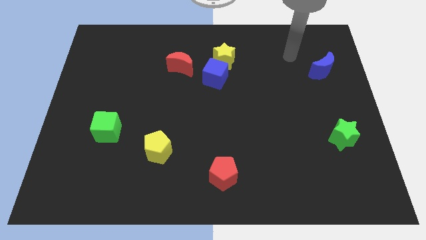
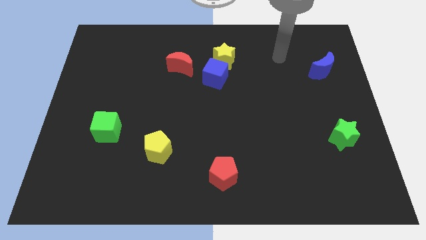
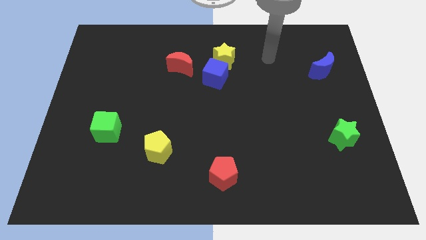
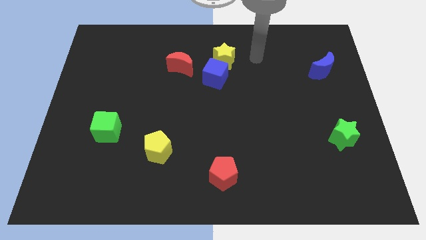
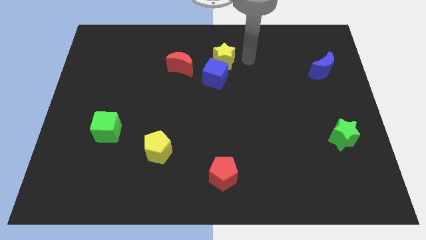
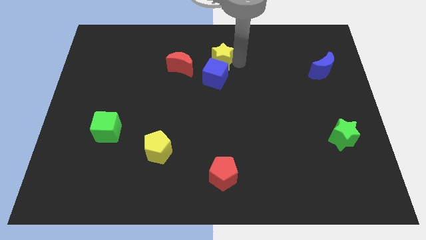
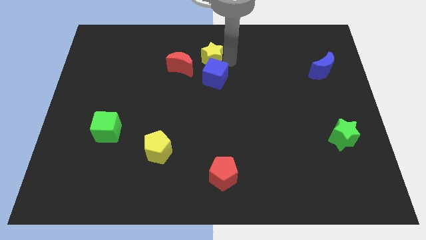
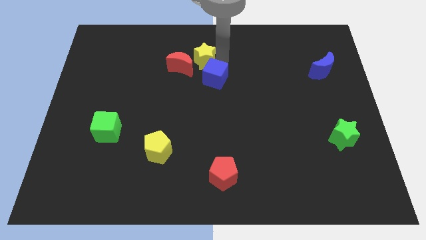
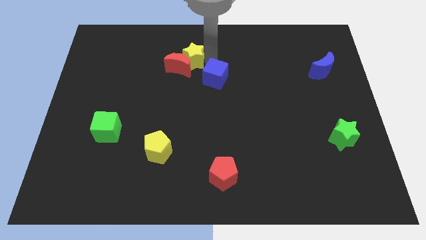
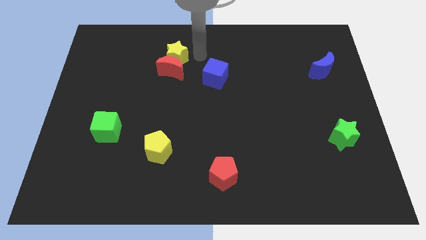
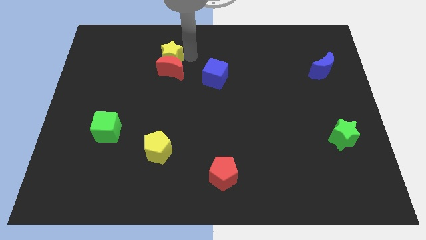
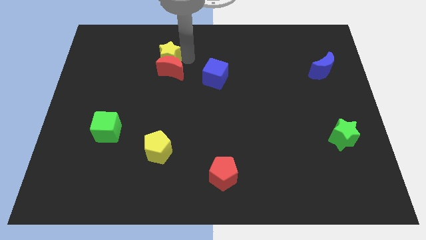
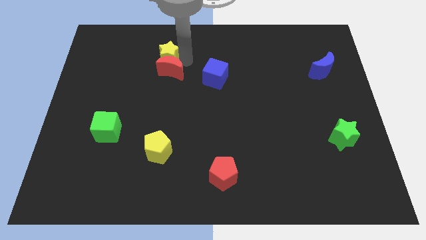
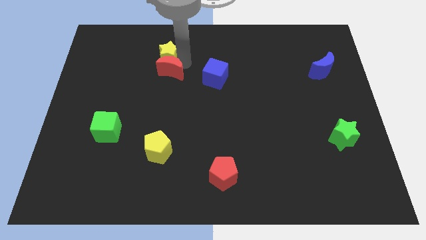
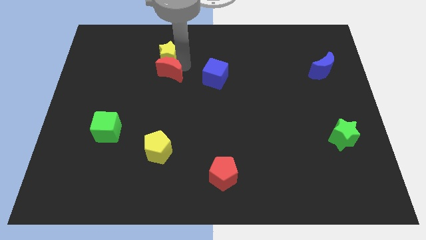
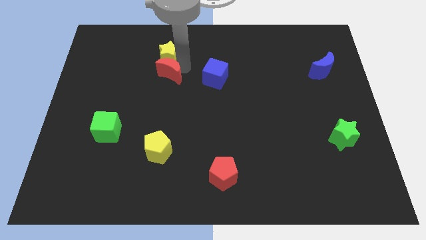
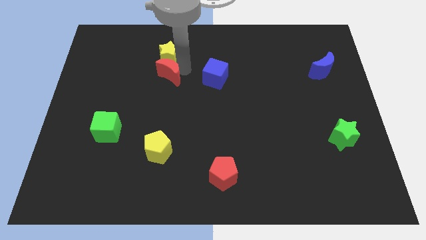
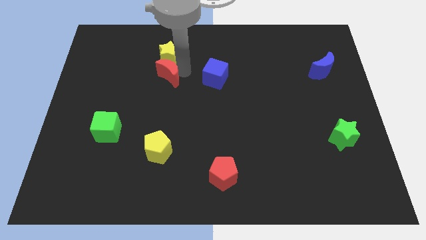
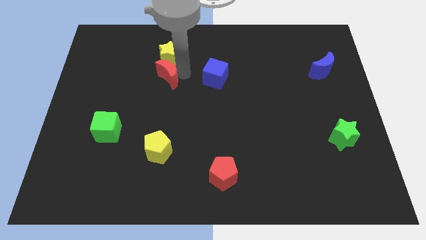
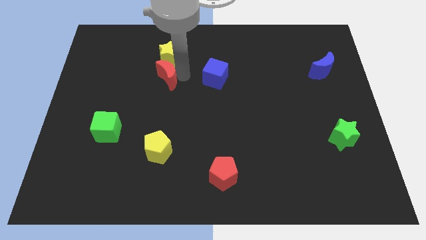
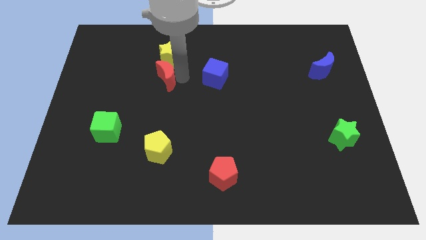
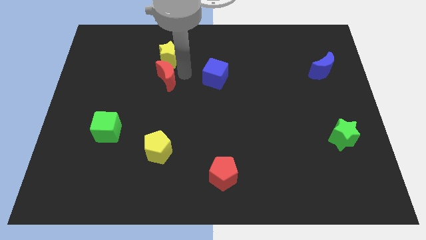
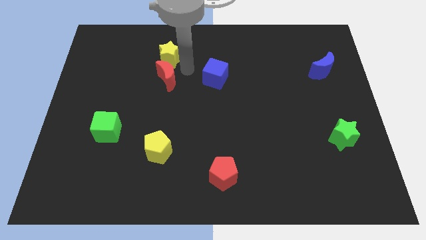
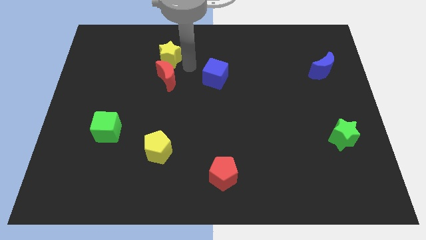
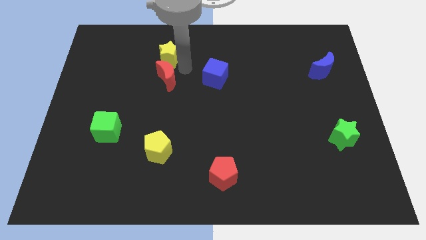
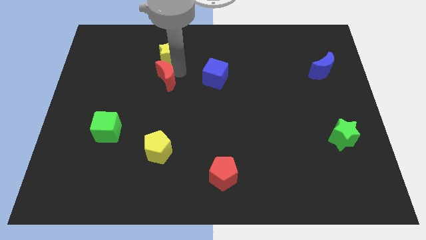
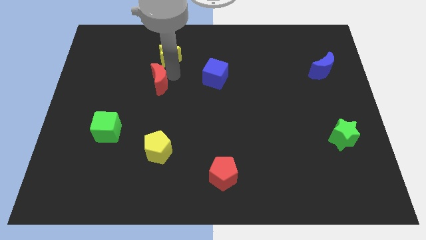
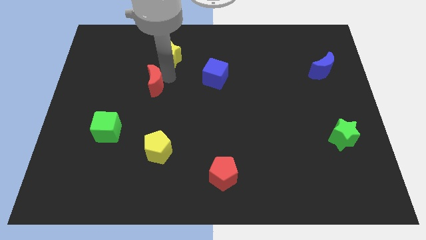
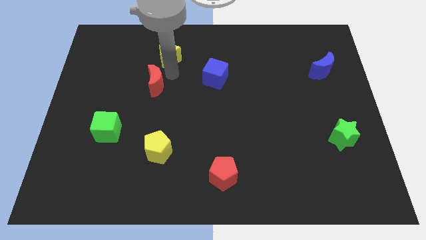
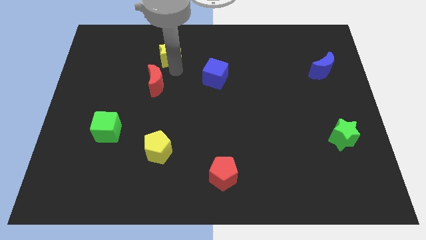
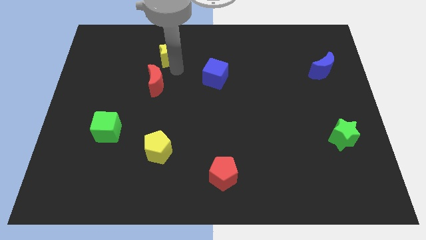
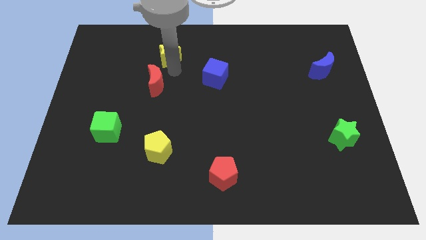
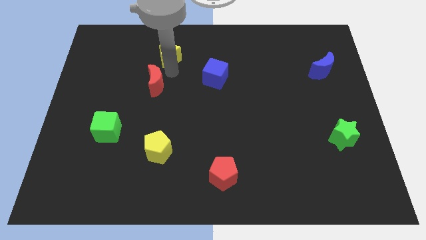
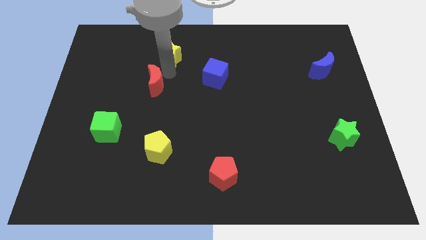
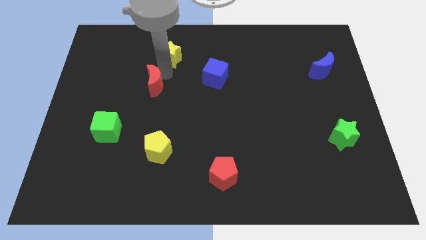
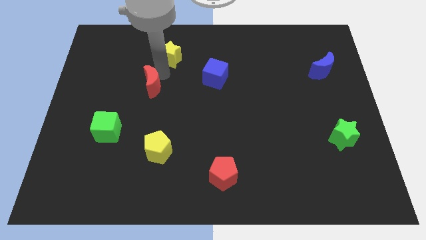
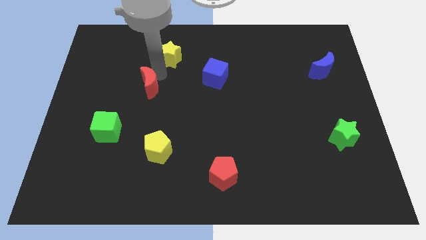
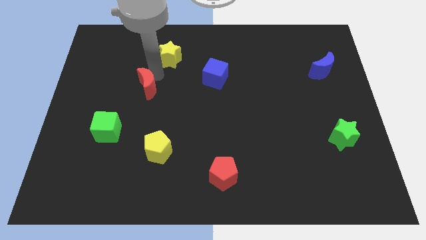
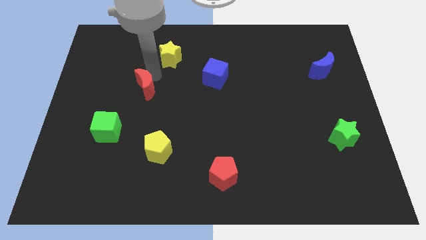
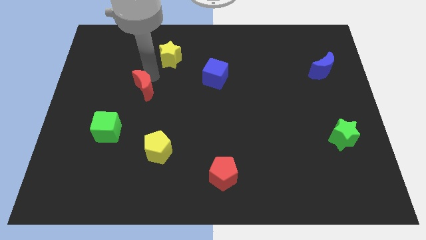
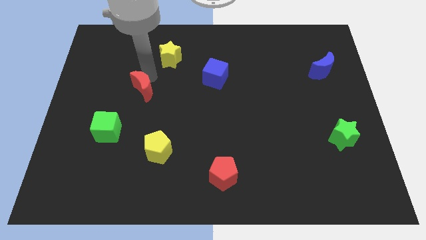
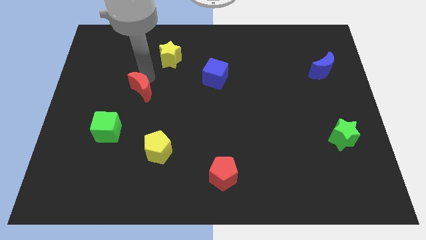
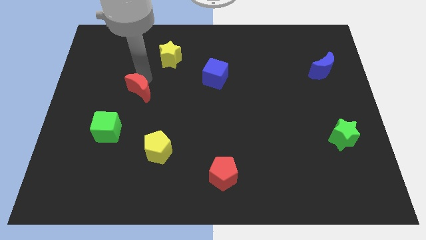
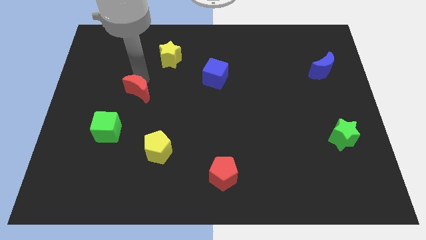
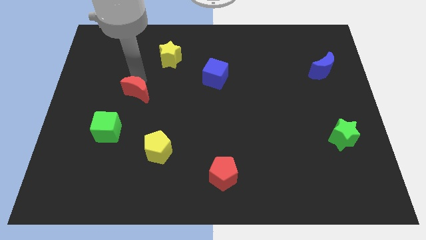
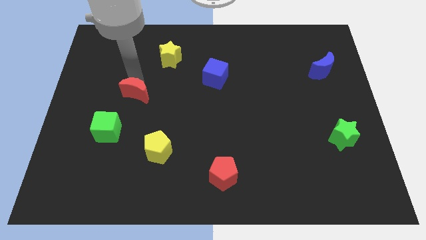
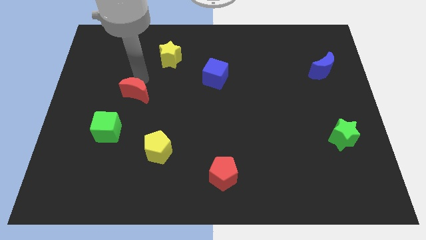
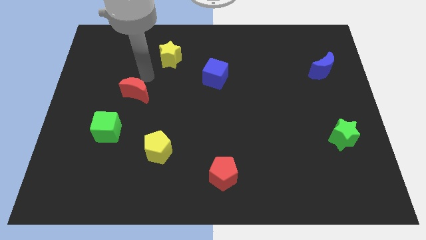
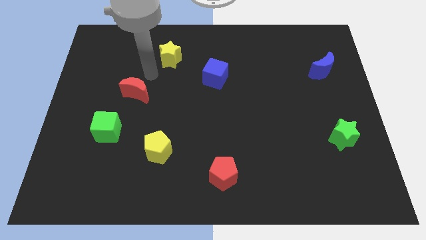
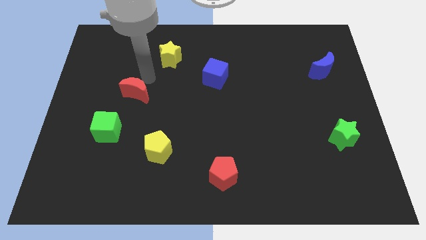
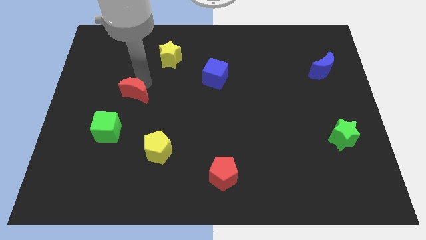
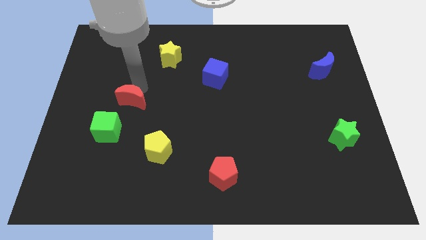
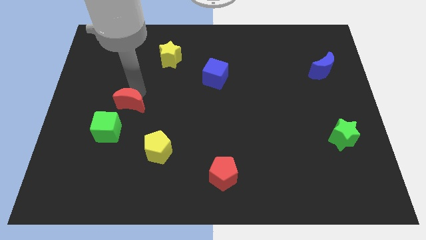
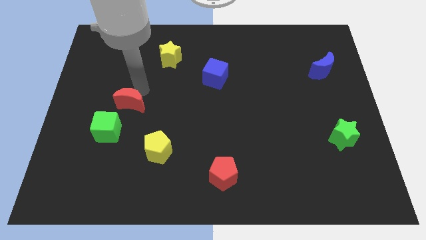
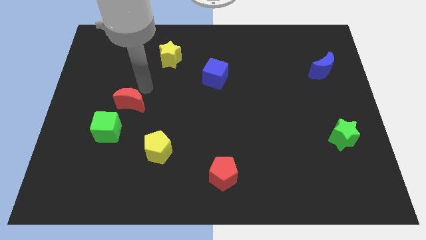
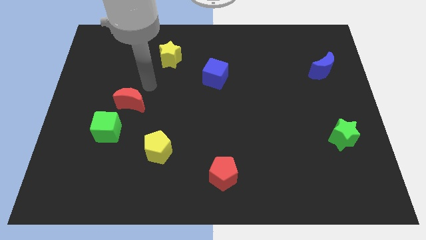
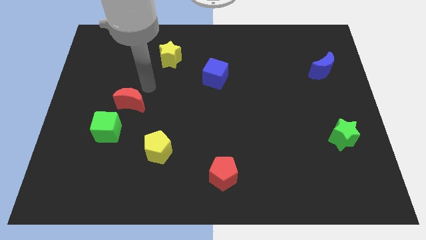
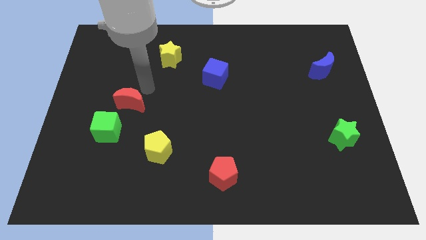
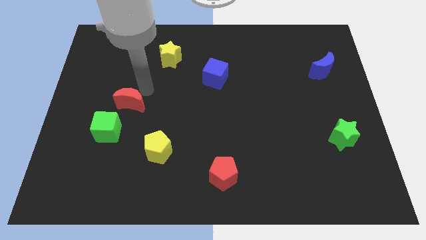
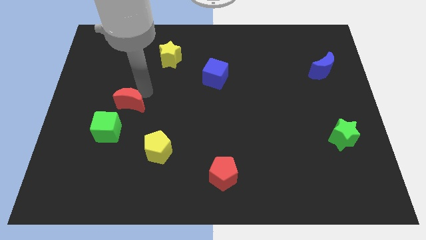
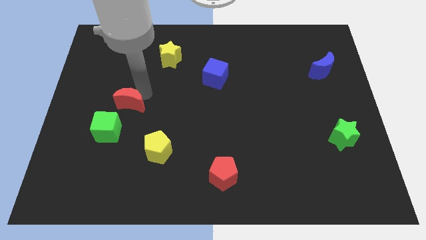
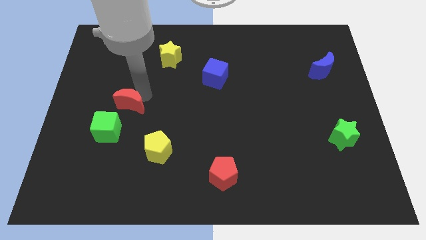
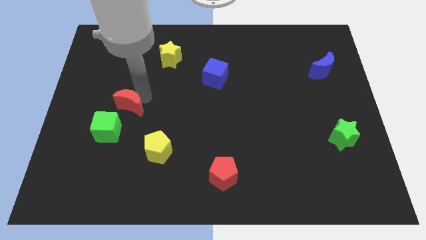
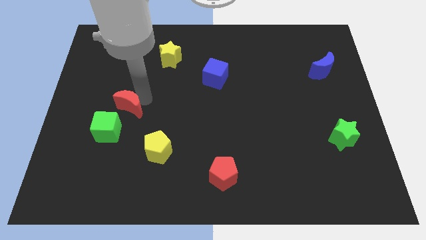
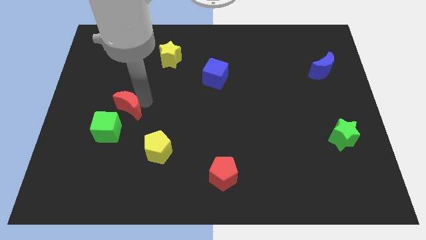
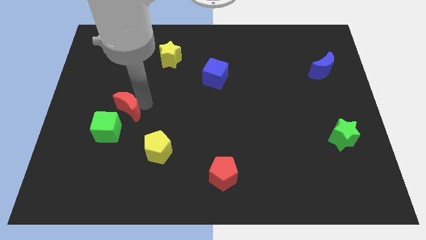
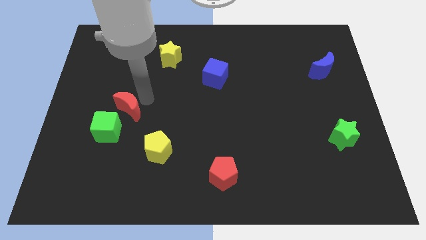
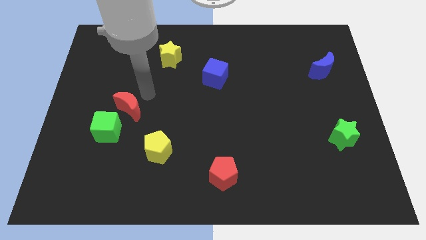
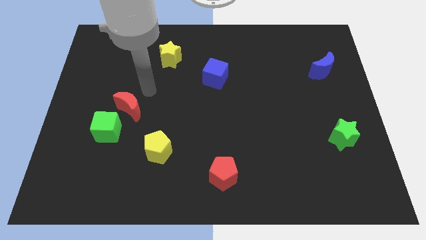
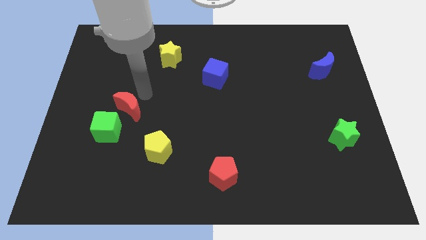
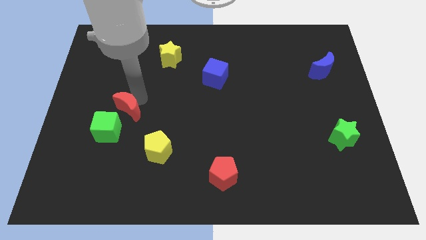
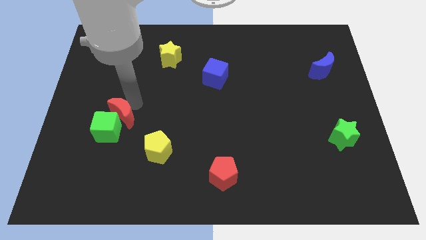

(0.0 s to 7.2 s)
put the red moon close to the green cube
